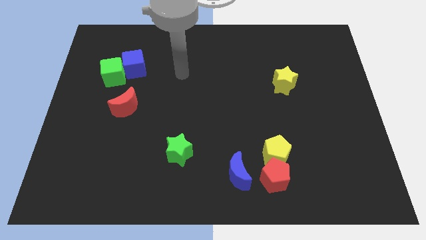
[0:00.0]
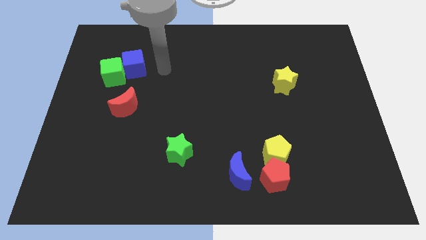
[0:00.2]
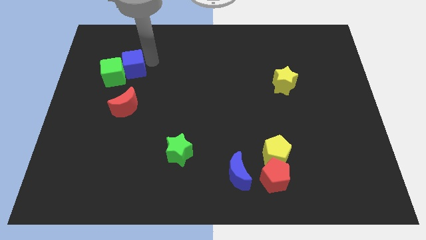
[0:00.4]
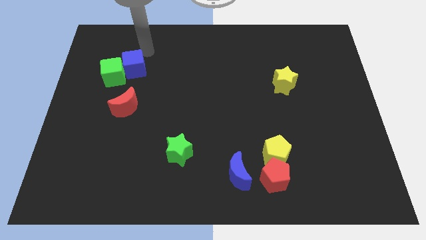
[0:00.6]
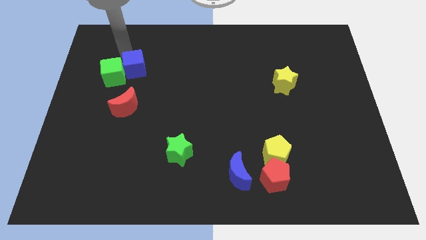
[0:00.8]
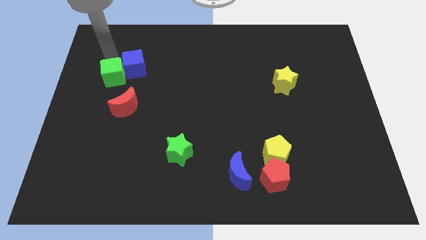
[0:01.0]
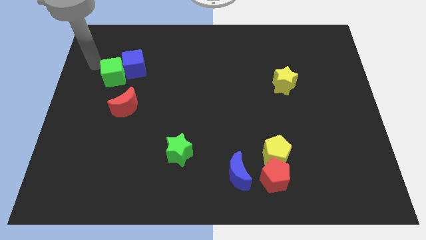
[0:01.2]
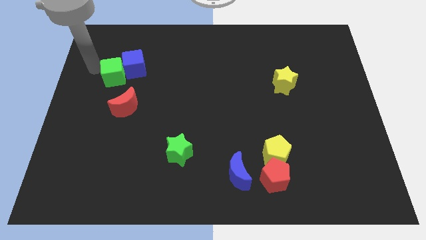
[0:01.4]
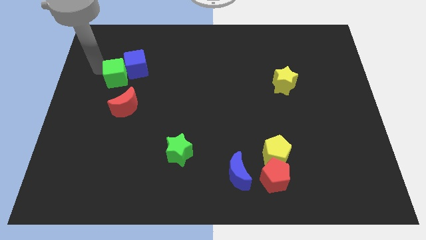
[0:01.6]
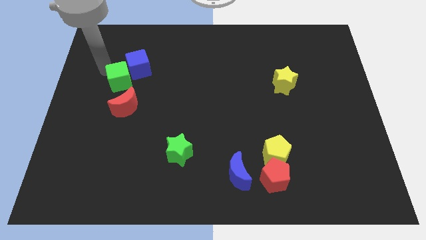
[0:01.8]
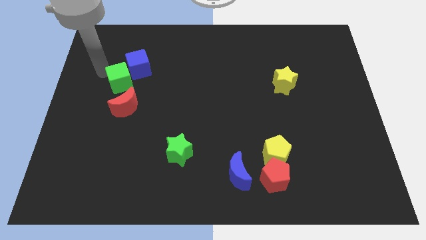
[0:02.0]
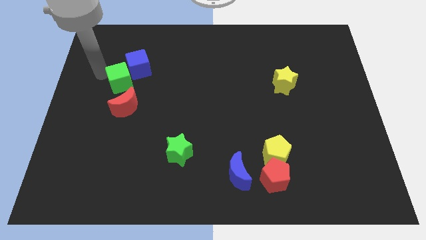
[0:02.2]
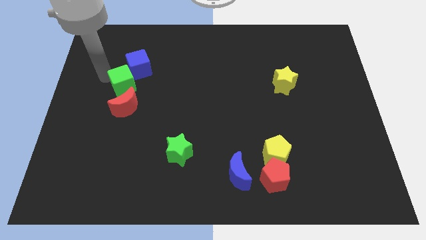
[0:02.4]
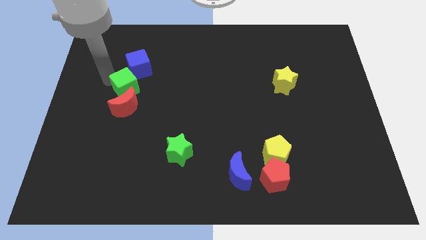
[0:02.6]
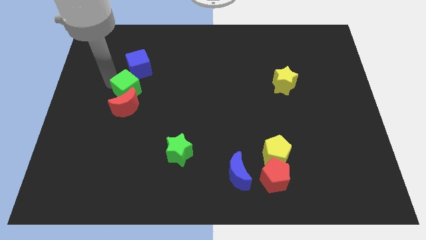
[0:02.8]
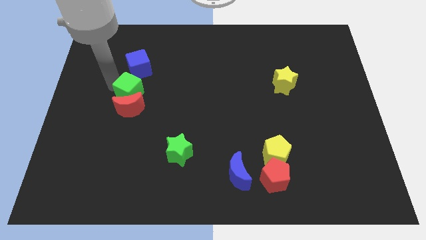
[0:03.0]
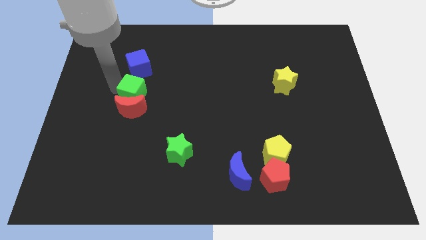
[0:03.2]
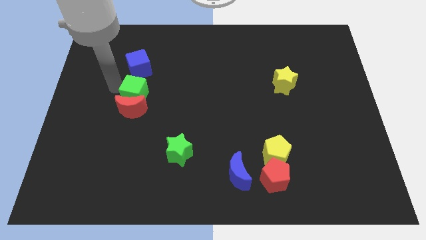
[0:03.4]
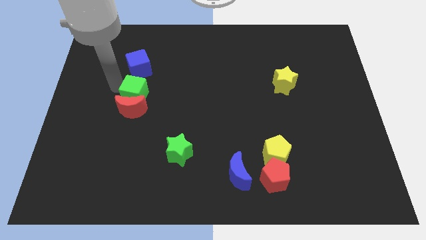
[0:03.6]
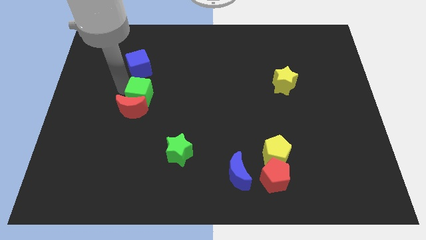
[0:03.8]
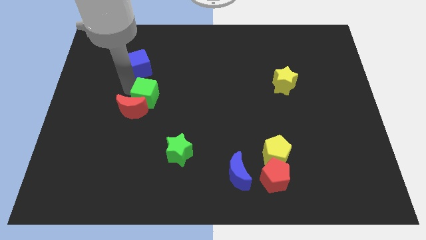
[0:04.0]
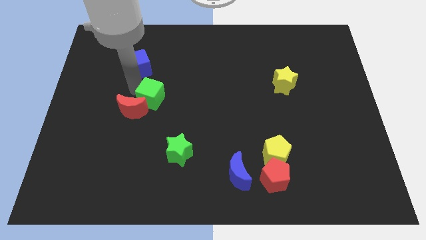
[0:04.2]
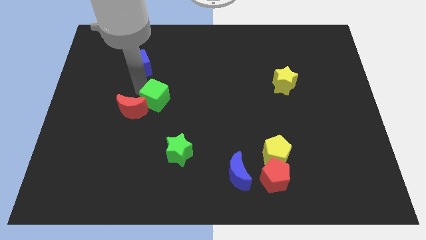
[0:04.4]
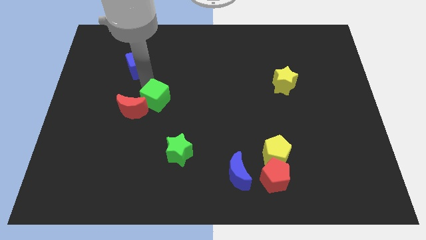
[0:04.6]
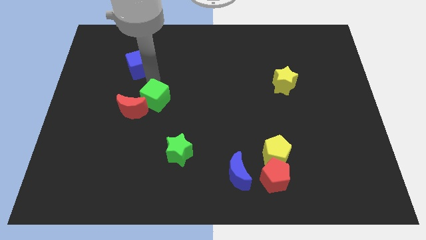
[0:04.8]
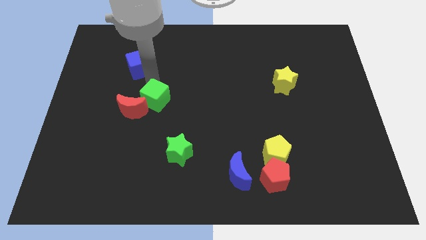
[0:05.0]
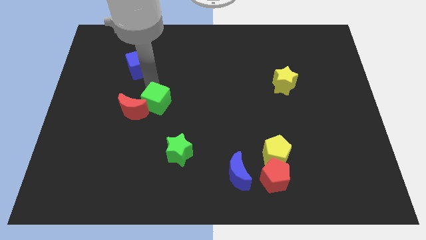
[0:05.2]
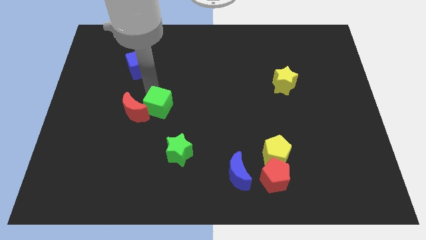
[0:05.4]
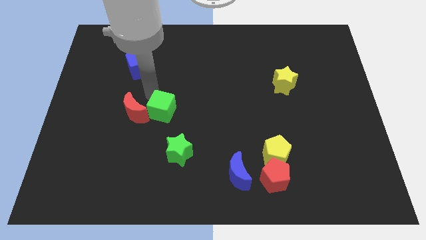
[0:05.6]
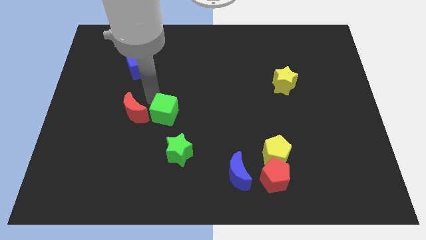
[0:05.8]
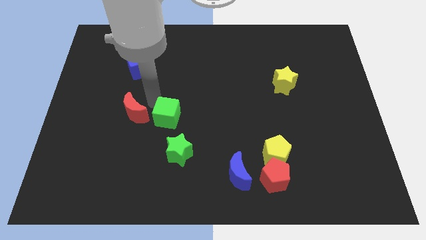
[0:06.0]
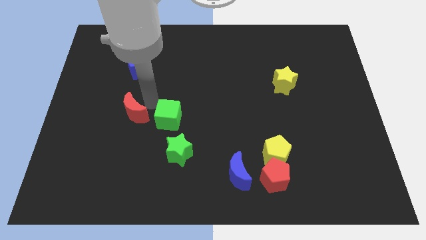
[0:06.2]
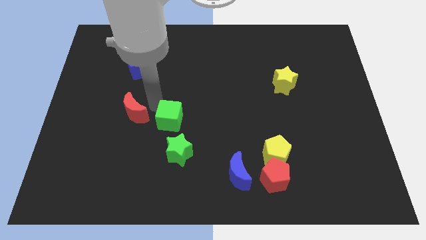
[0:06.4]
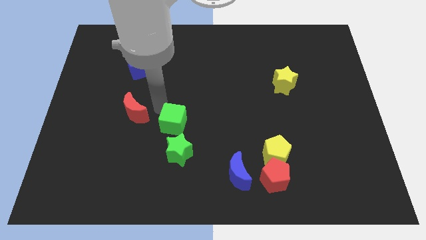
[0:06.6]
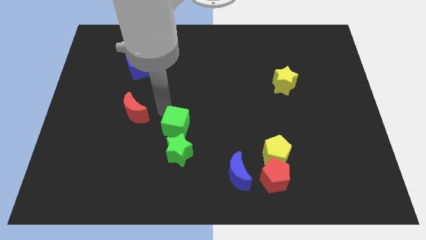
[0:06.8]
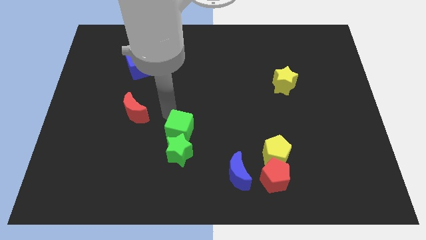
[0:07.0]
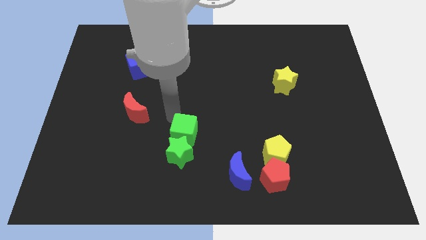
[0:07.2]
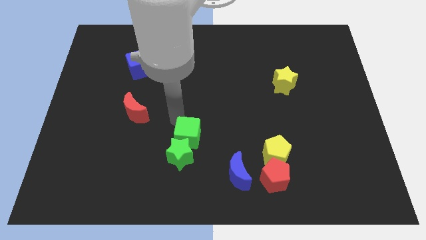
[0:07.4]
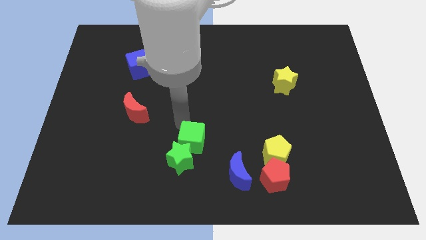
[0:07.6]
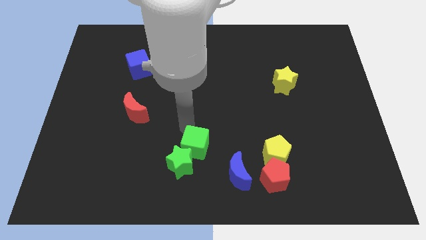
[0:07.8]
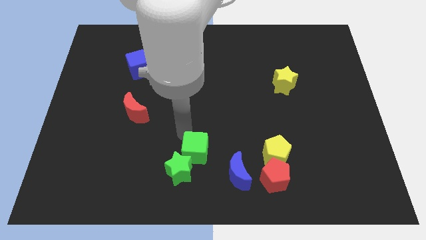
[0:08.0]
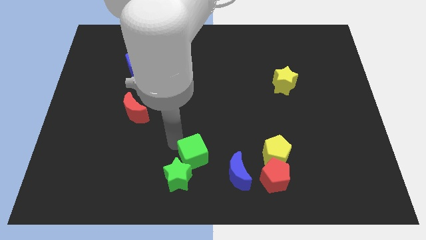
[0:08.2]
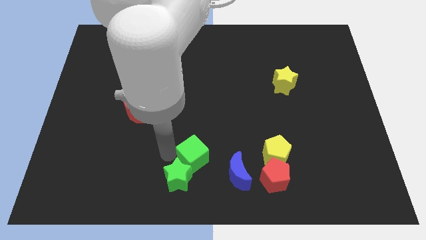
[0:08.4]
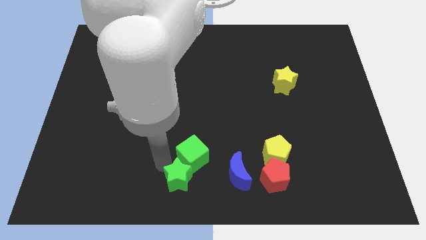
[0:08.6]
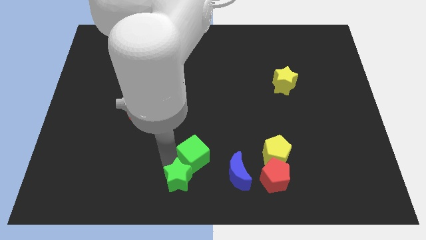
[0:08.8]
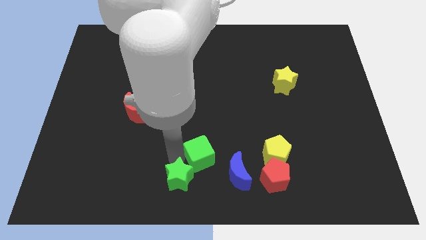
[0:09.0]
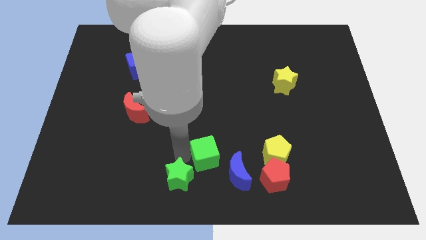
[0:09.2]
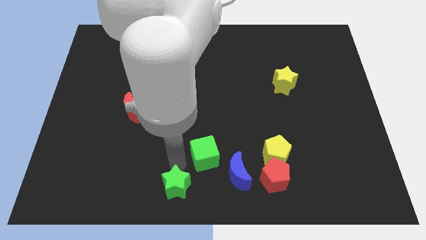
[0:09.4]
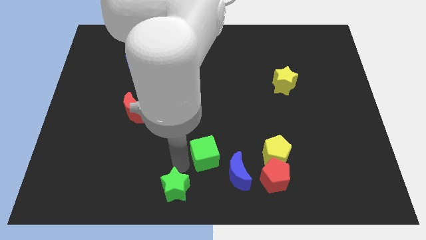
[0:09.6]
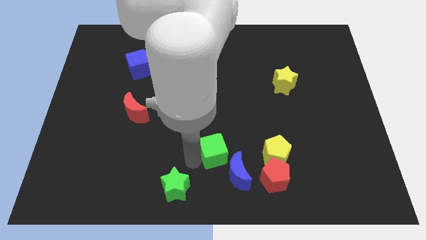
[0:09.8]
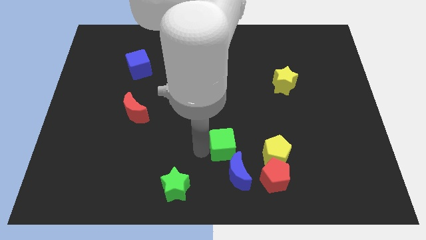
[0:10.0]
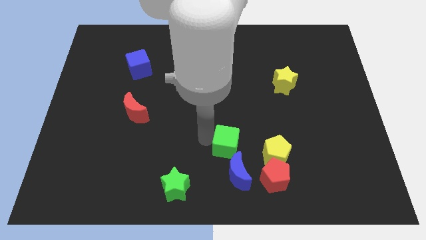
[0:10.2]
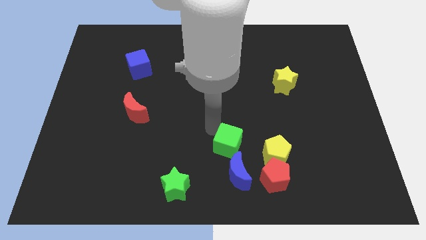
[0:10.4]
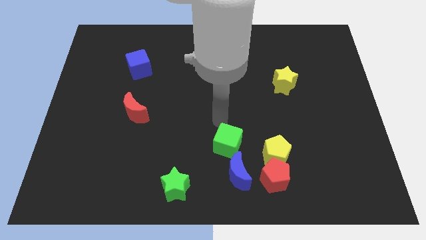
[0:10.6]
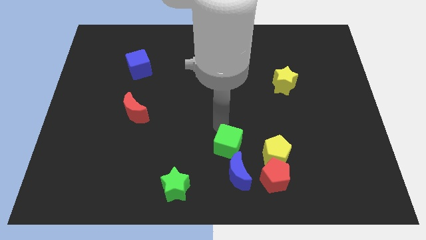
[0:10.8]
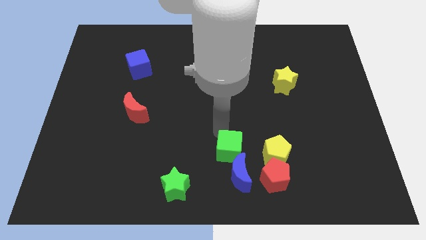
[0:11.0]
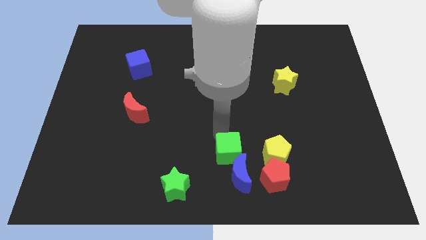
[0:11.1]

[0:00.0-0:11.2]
move the green cube to the blue moon

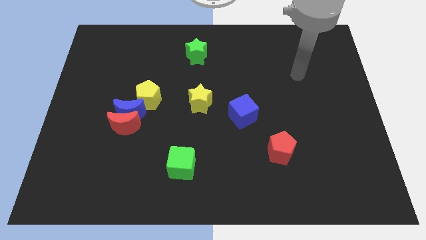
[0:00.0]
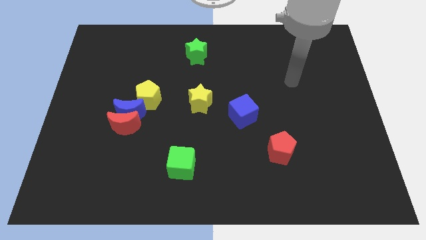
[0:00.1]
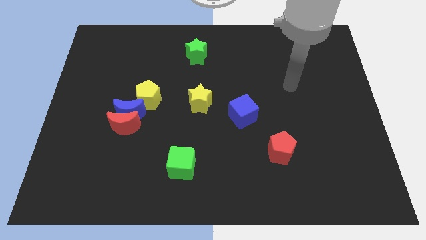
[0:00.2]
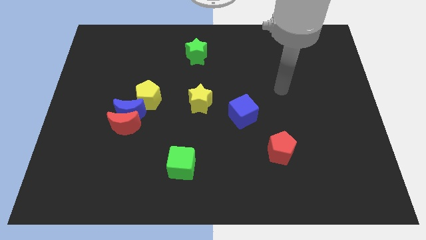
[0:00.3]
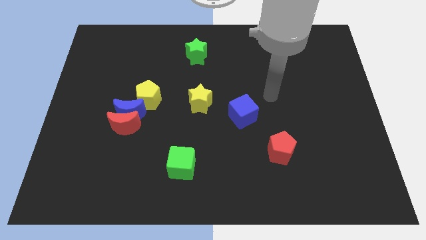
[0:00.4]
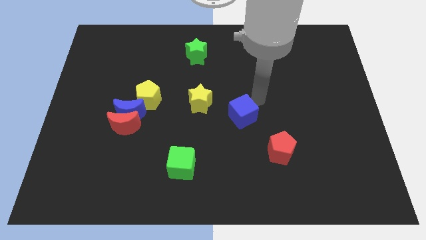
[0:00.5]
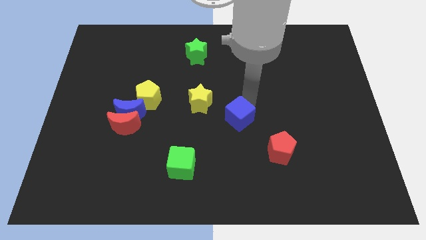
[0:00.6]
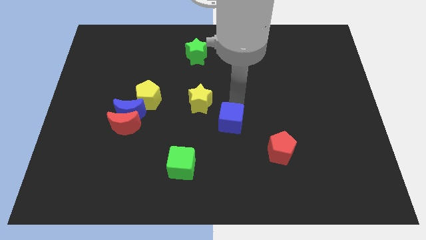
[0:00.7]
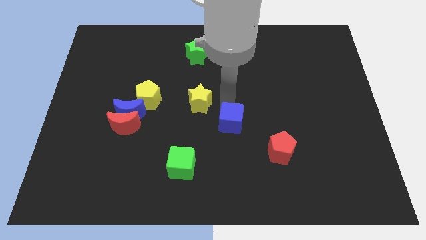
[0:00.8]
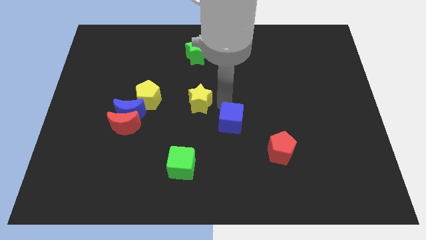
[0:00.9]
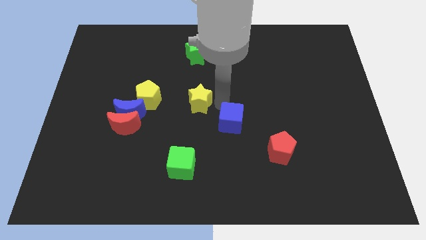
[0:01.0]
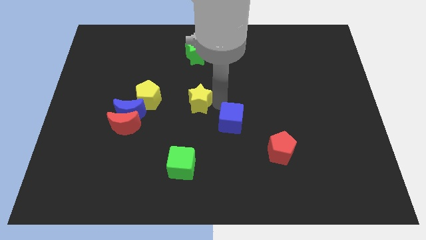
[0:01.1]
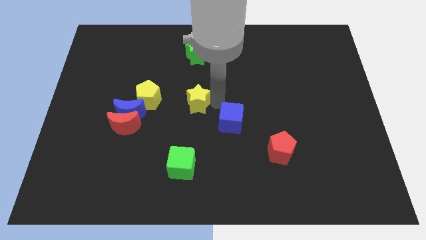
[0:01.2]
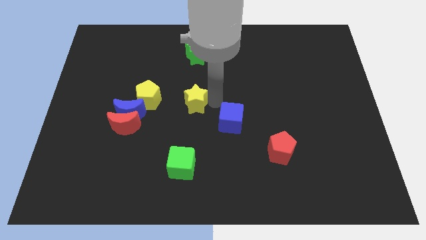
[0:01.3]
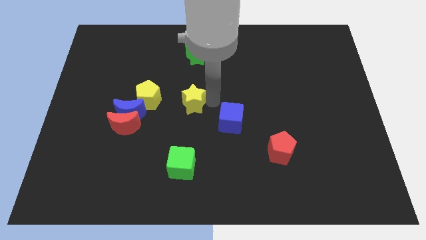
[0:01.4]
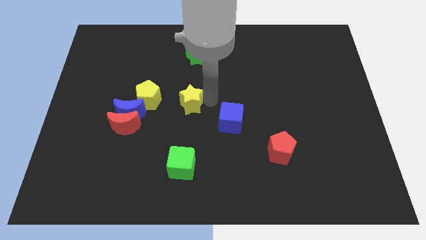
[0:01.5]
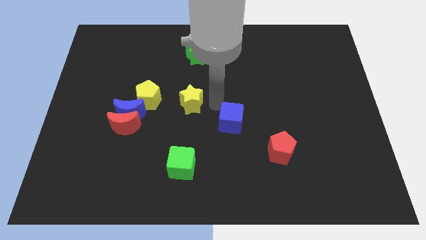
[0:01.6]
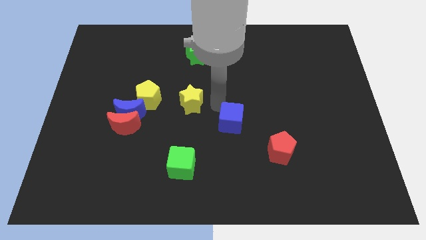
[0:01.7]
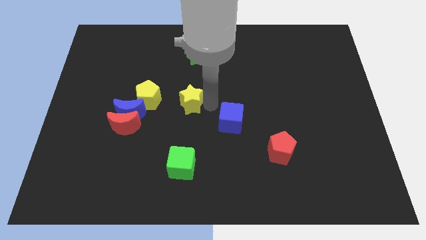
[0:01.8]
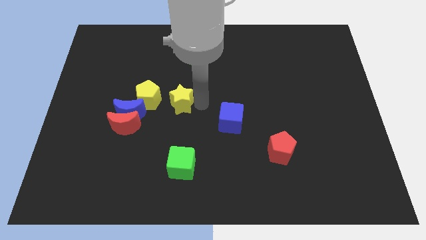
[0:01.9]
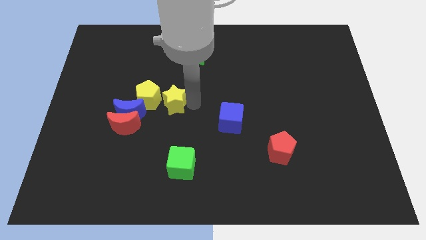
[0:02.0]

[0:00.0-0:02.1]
move the yellow star towards the yellow pentagon
